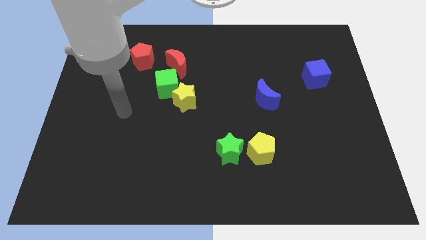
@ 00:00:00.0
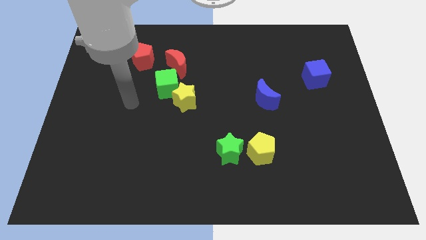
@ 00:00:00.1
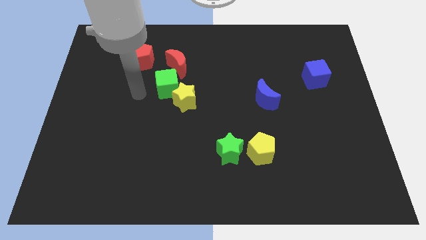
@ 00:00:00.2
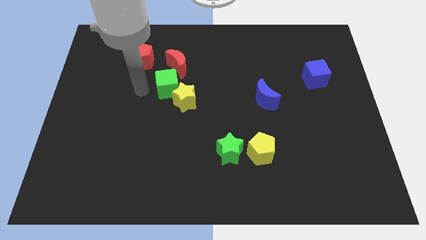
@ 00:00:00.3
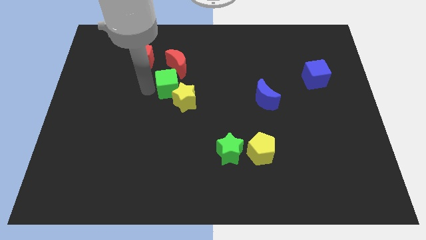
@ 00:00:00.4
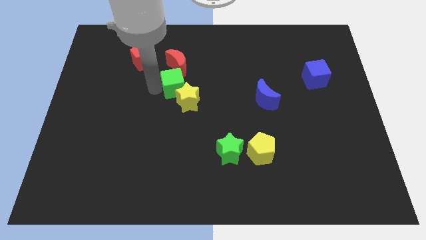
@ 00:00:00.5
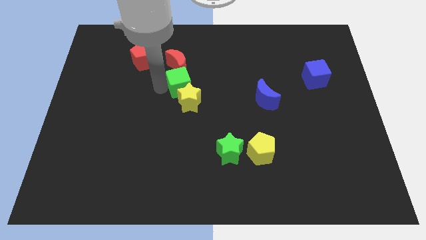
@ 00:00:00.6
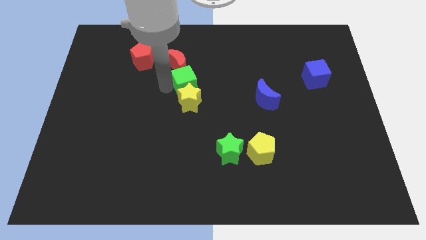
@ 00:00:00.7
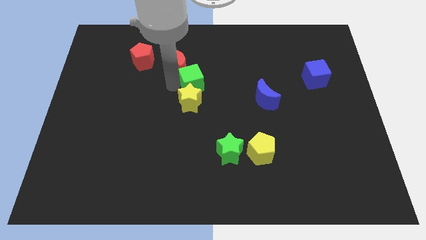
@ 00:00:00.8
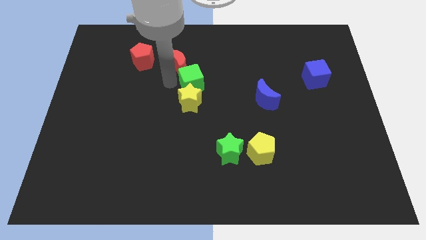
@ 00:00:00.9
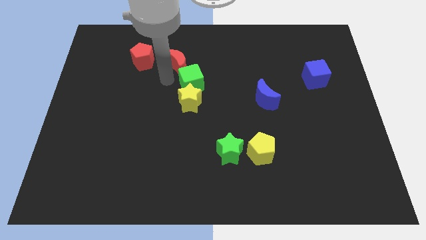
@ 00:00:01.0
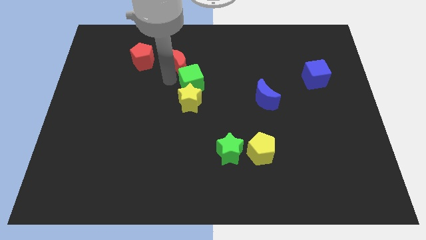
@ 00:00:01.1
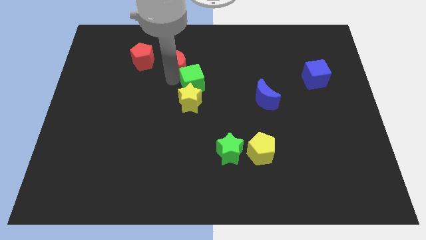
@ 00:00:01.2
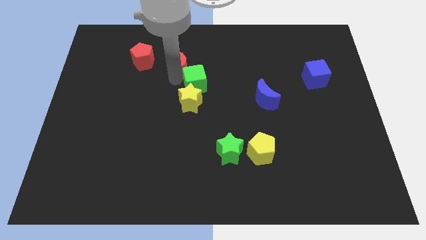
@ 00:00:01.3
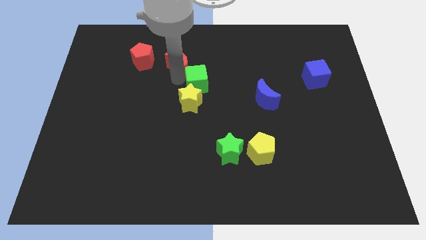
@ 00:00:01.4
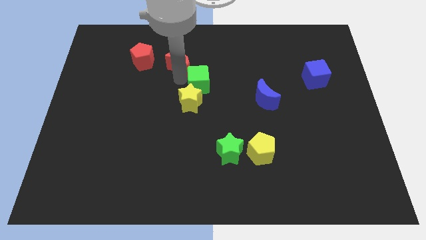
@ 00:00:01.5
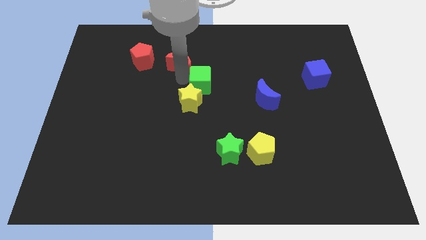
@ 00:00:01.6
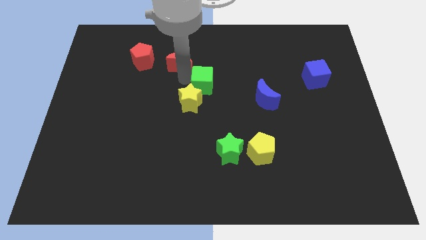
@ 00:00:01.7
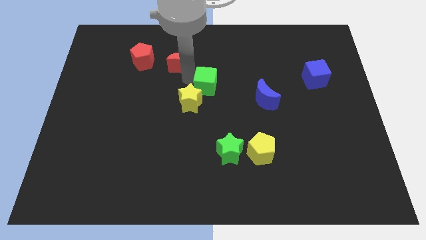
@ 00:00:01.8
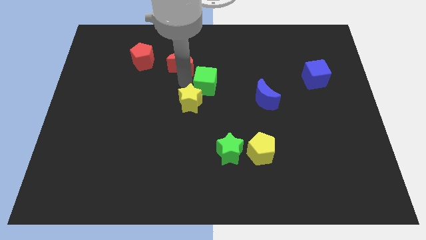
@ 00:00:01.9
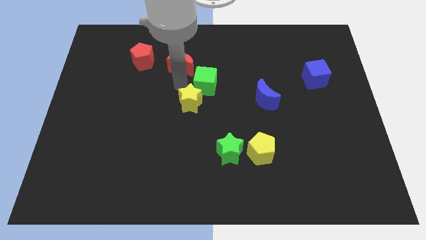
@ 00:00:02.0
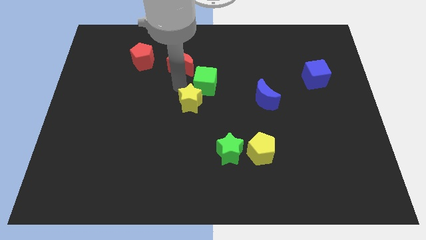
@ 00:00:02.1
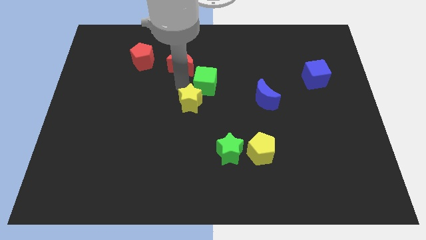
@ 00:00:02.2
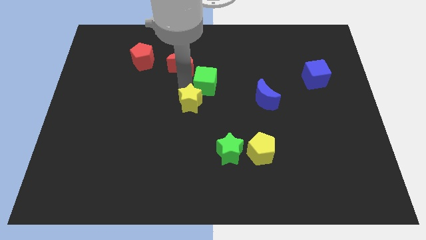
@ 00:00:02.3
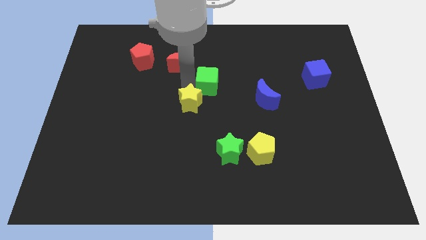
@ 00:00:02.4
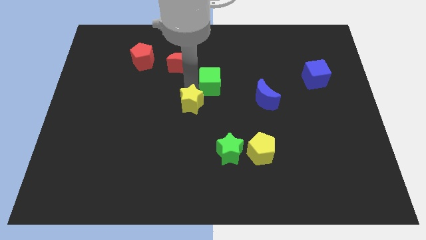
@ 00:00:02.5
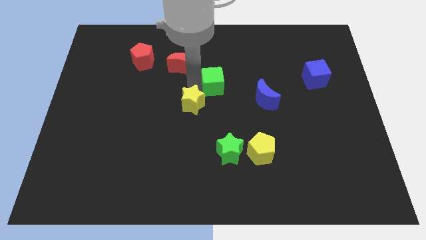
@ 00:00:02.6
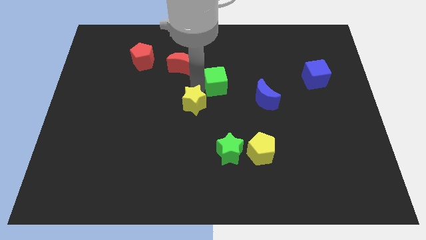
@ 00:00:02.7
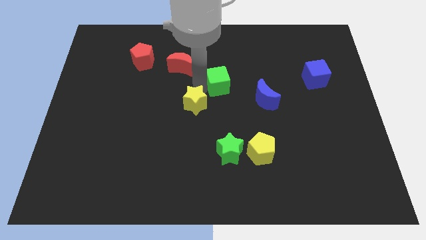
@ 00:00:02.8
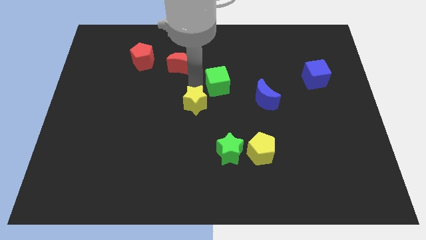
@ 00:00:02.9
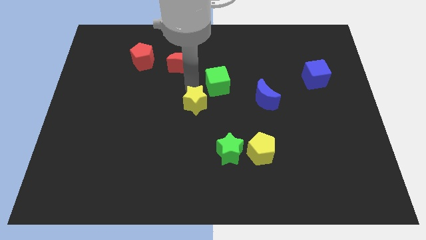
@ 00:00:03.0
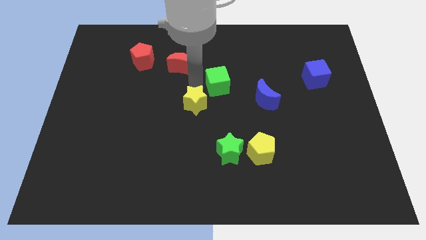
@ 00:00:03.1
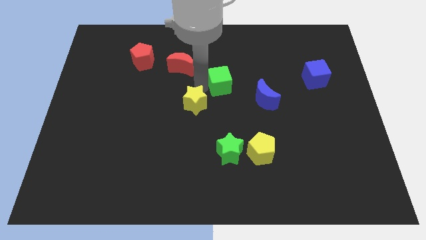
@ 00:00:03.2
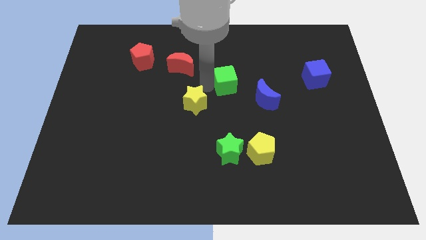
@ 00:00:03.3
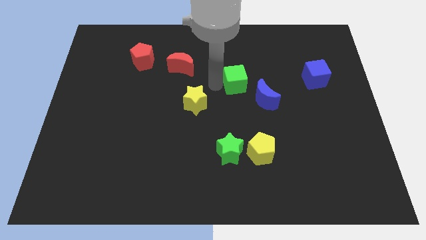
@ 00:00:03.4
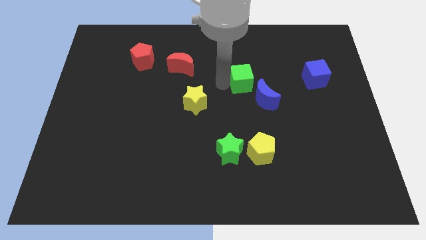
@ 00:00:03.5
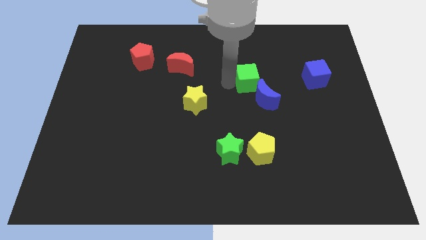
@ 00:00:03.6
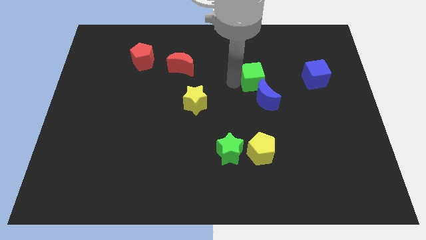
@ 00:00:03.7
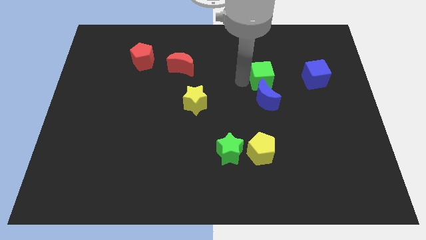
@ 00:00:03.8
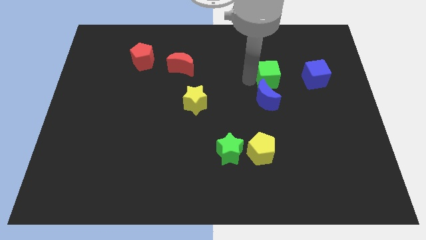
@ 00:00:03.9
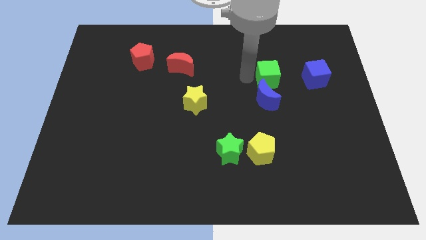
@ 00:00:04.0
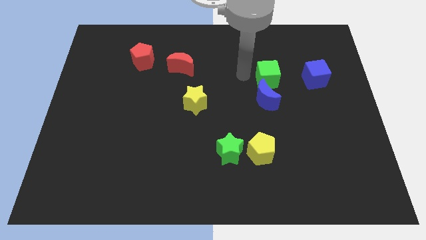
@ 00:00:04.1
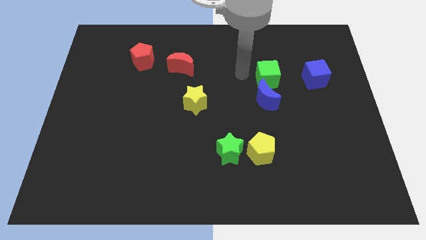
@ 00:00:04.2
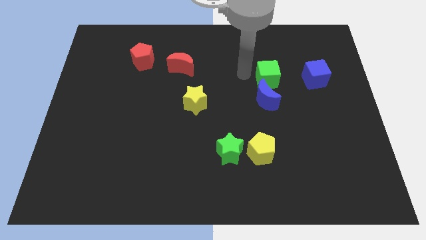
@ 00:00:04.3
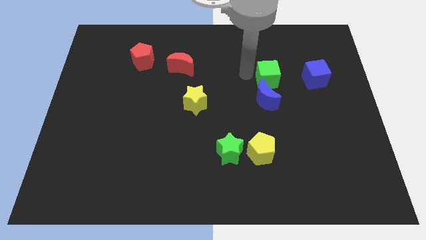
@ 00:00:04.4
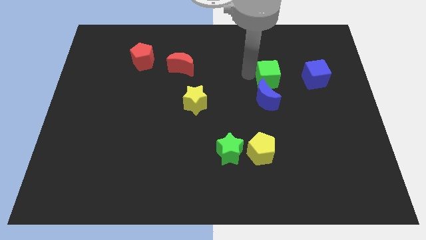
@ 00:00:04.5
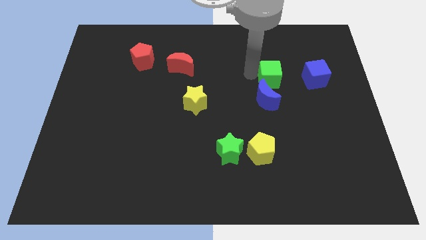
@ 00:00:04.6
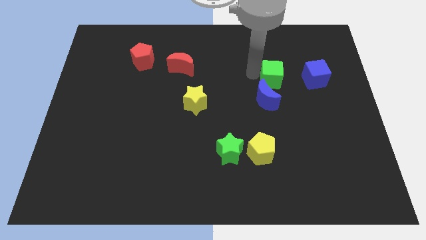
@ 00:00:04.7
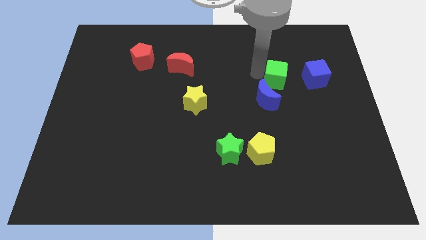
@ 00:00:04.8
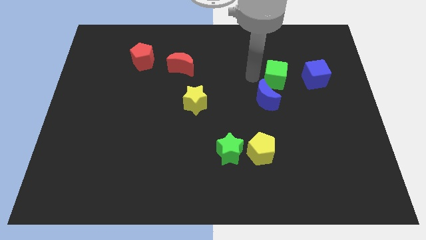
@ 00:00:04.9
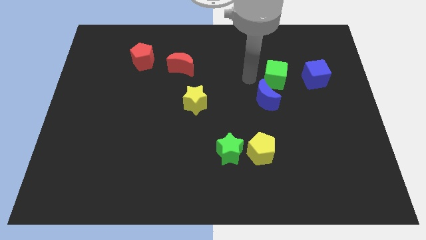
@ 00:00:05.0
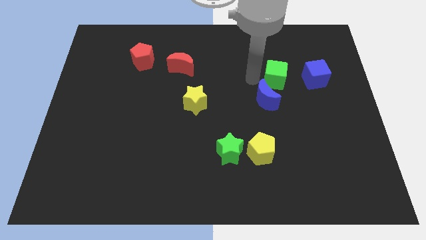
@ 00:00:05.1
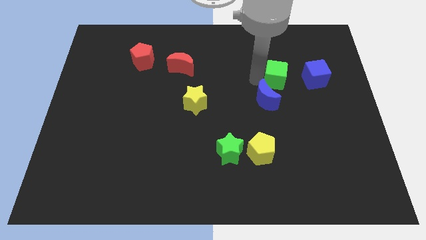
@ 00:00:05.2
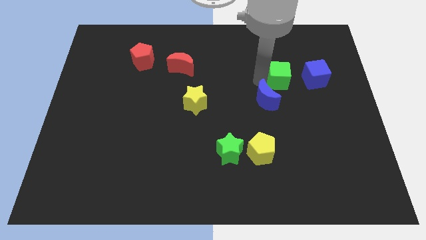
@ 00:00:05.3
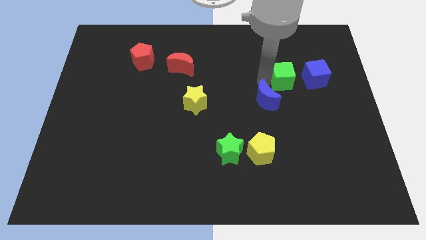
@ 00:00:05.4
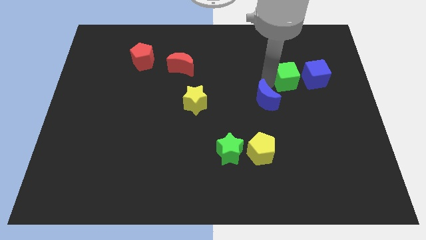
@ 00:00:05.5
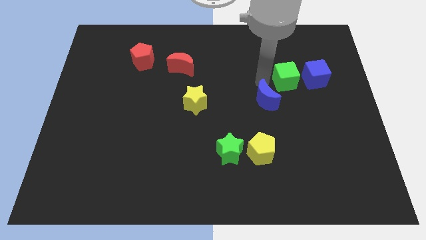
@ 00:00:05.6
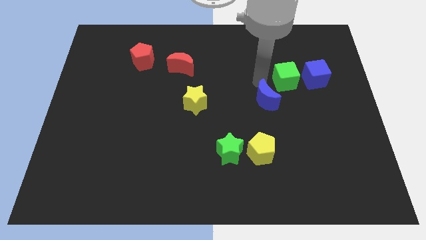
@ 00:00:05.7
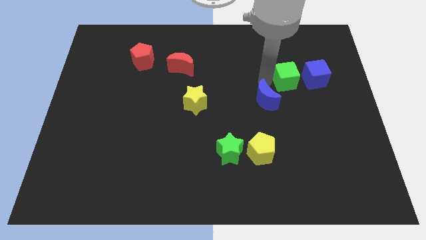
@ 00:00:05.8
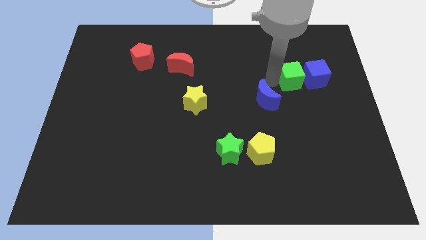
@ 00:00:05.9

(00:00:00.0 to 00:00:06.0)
put the green cube close to the blue cube

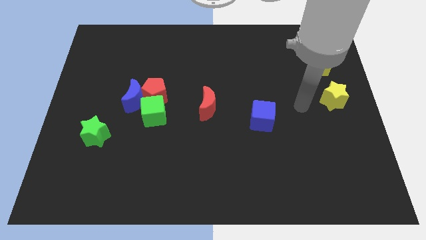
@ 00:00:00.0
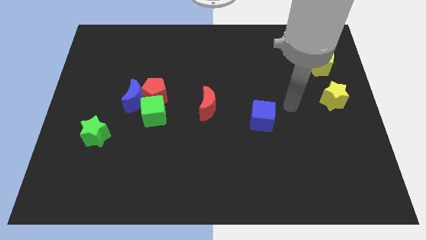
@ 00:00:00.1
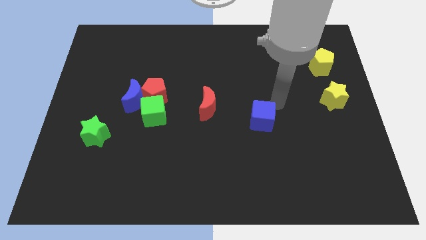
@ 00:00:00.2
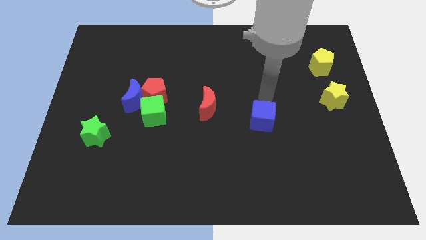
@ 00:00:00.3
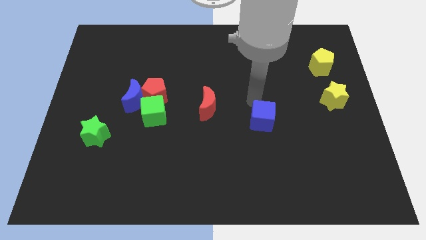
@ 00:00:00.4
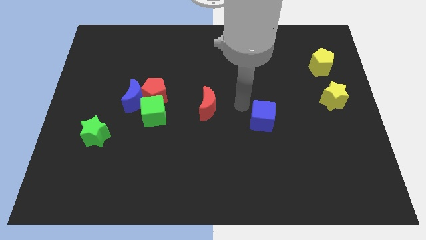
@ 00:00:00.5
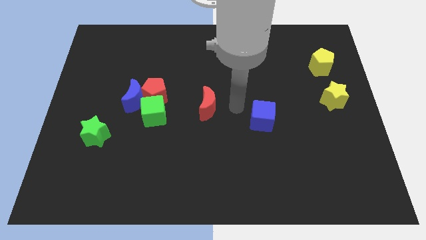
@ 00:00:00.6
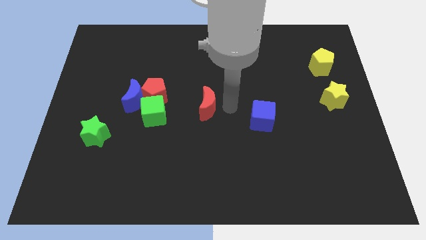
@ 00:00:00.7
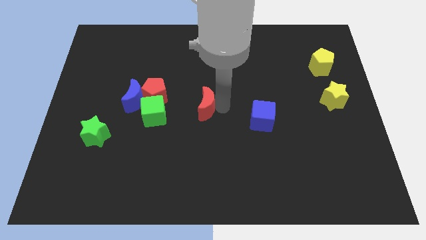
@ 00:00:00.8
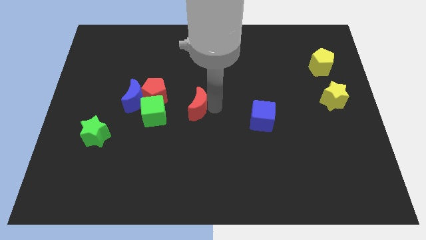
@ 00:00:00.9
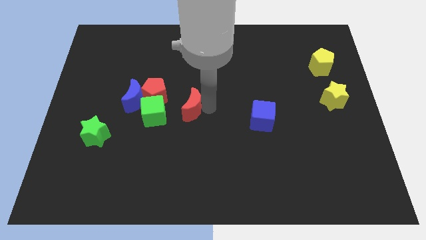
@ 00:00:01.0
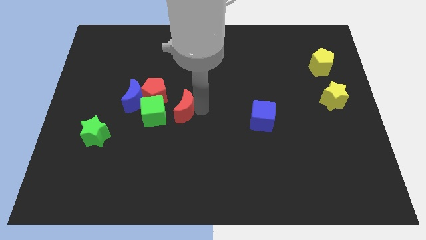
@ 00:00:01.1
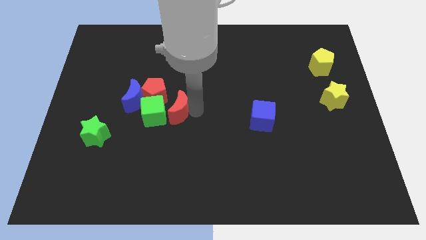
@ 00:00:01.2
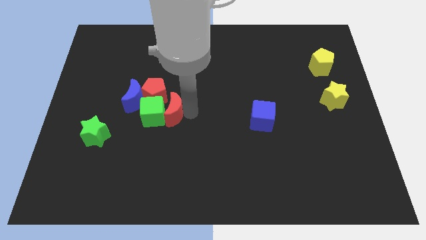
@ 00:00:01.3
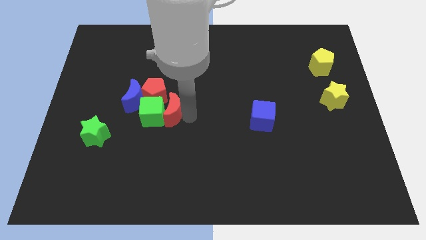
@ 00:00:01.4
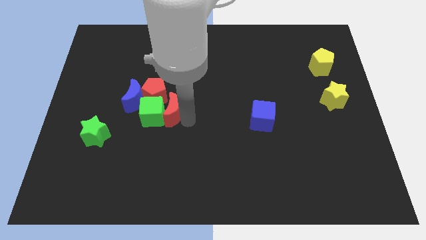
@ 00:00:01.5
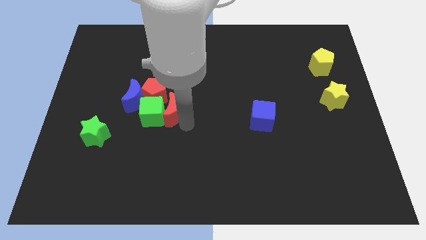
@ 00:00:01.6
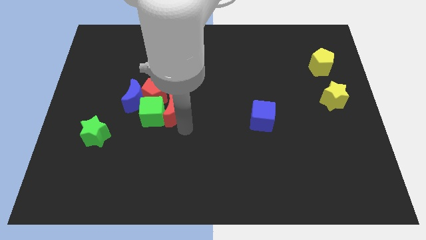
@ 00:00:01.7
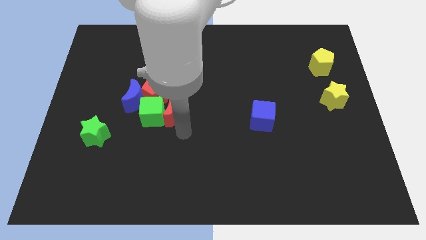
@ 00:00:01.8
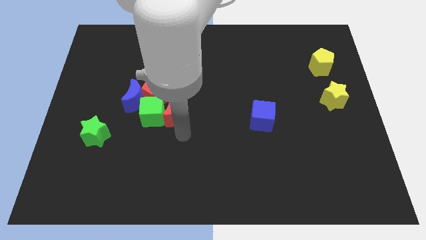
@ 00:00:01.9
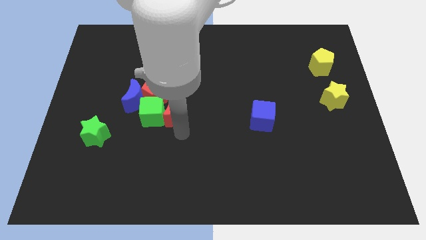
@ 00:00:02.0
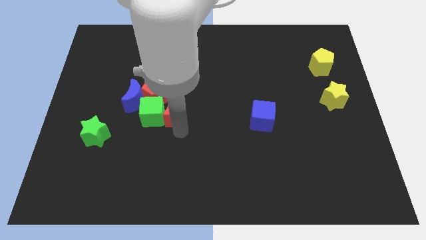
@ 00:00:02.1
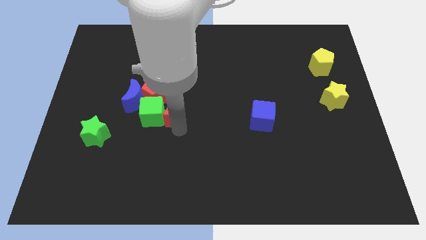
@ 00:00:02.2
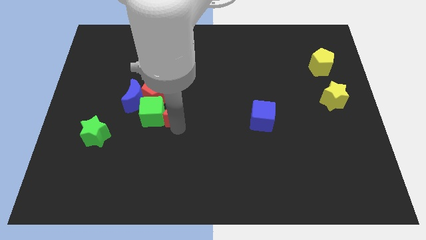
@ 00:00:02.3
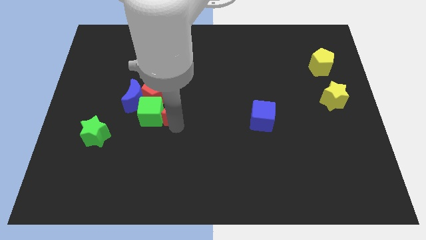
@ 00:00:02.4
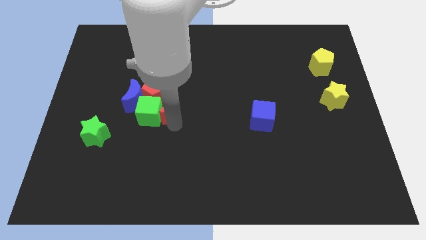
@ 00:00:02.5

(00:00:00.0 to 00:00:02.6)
push the red moon towards the red pentagon
